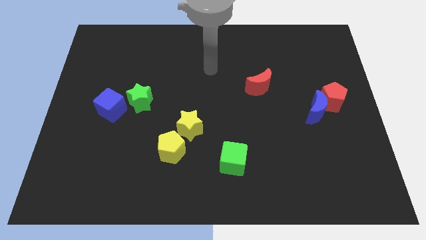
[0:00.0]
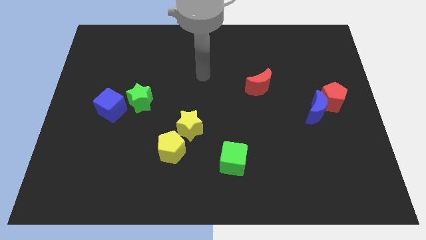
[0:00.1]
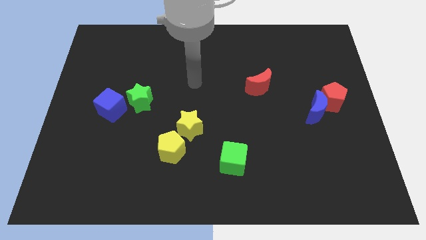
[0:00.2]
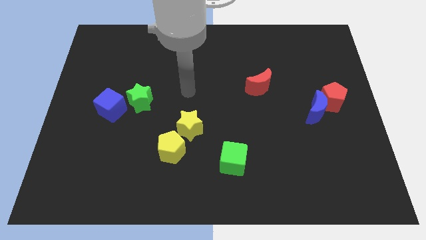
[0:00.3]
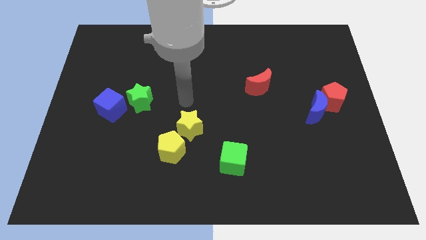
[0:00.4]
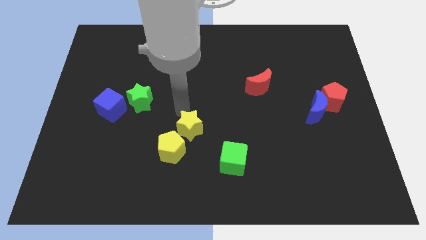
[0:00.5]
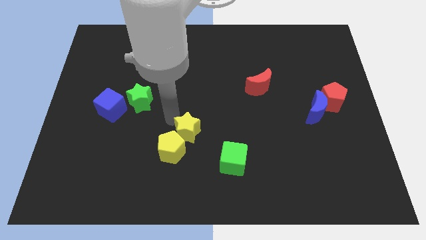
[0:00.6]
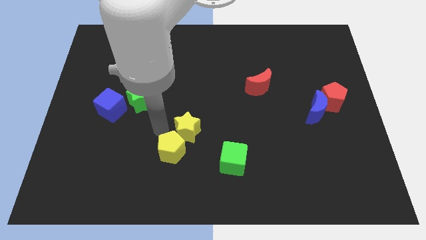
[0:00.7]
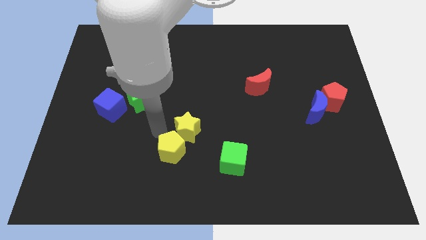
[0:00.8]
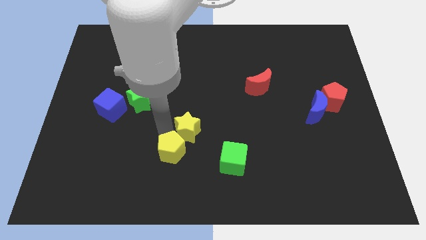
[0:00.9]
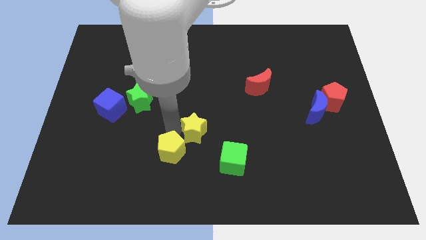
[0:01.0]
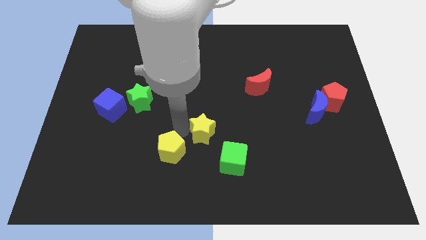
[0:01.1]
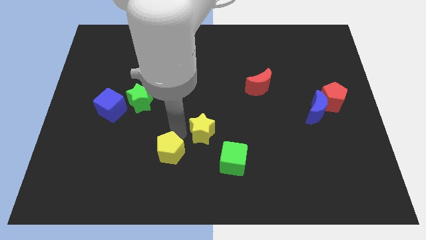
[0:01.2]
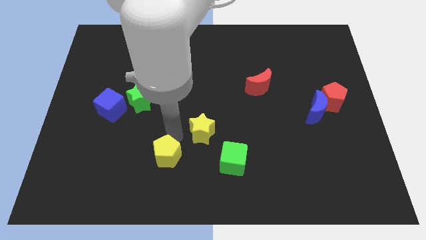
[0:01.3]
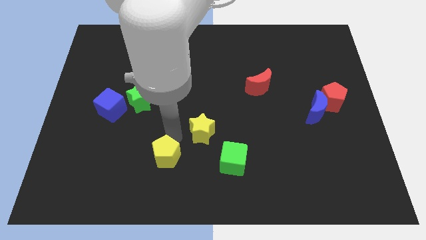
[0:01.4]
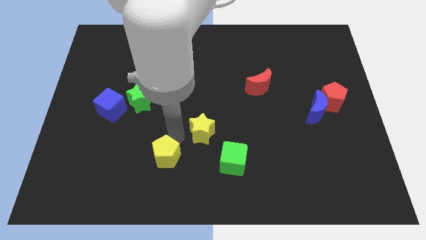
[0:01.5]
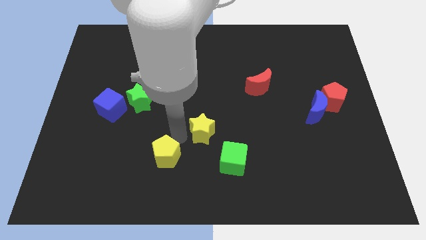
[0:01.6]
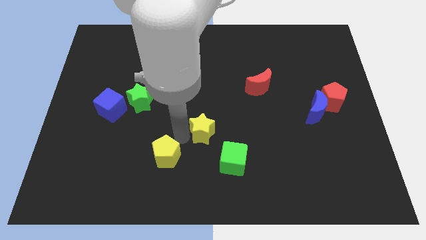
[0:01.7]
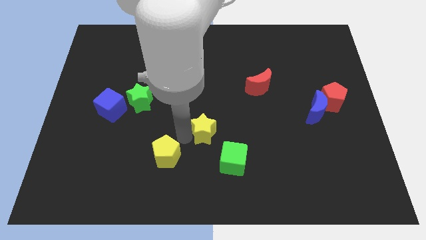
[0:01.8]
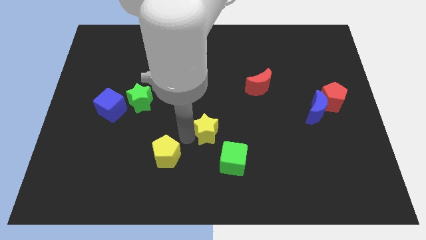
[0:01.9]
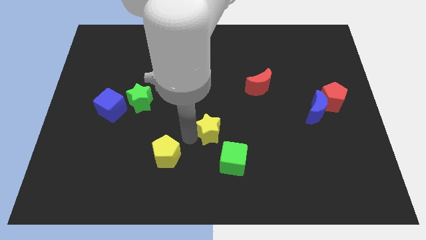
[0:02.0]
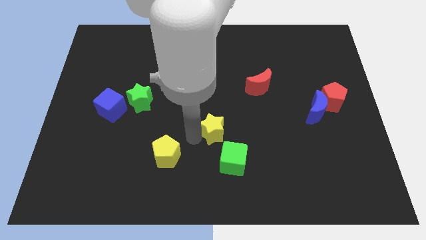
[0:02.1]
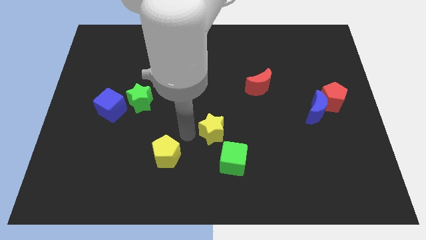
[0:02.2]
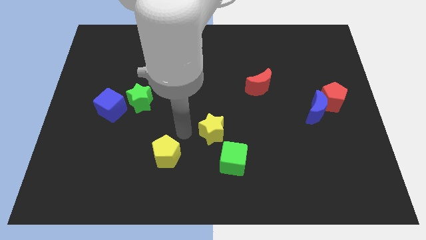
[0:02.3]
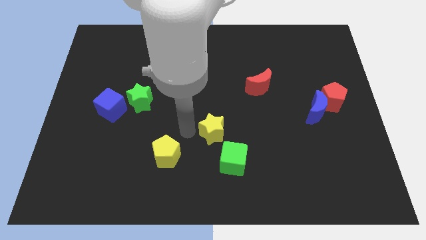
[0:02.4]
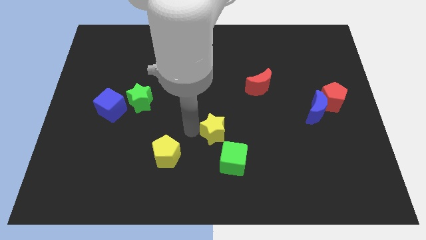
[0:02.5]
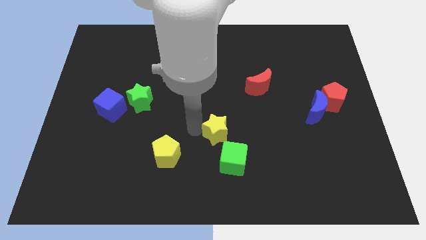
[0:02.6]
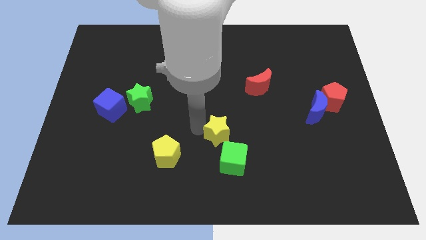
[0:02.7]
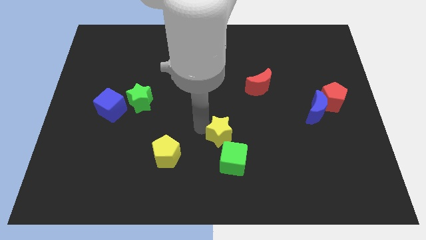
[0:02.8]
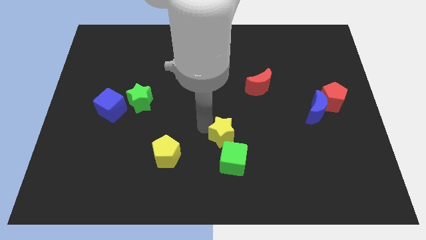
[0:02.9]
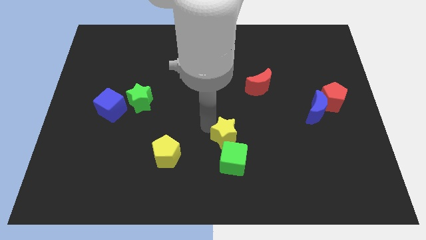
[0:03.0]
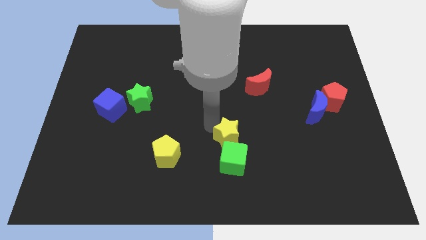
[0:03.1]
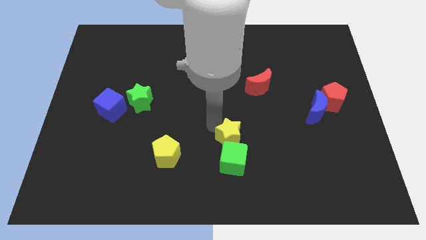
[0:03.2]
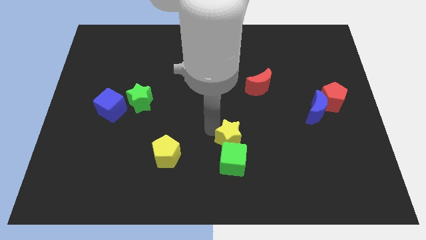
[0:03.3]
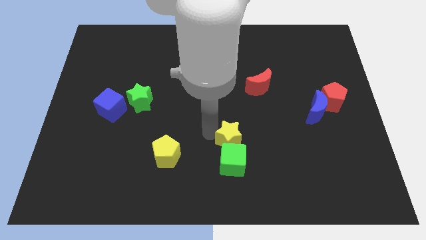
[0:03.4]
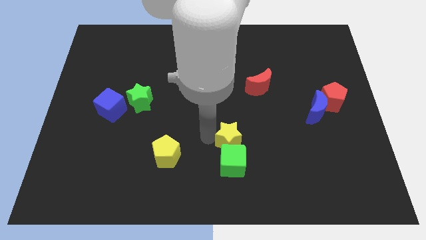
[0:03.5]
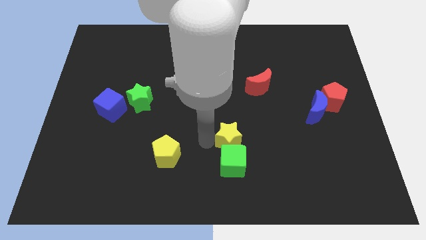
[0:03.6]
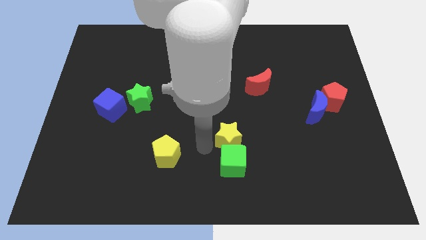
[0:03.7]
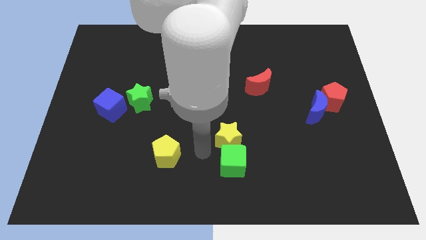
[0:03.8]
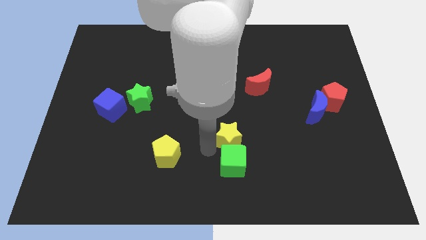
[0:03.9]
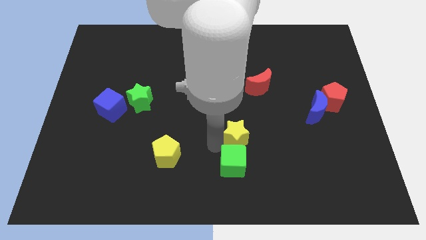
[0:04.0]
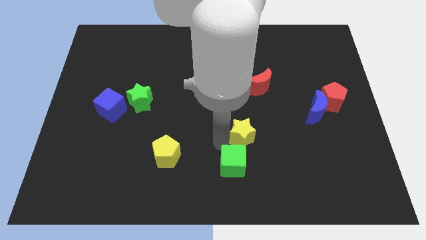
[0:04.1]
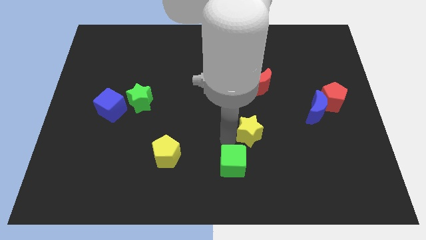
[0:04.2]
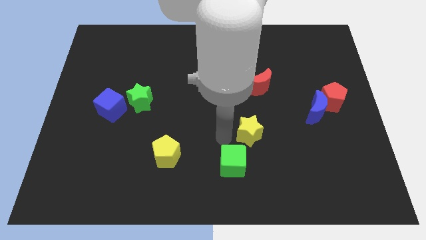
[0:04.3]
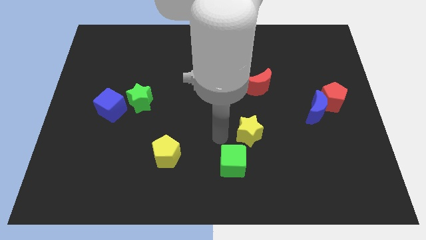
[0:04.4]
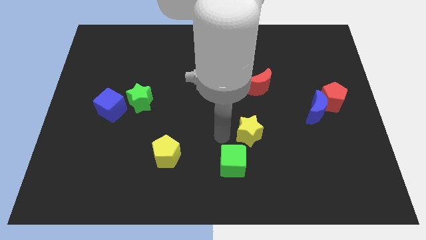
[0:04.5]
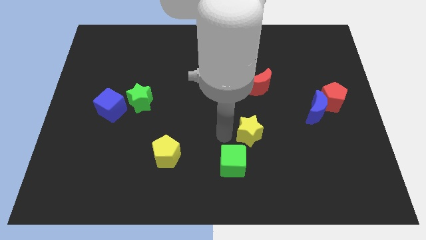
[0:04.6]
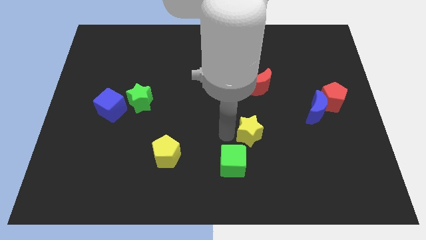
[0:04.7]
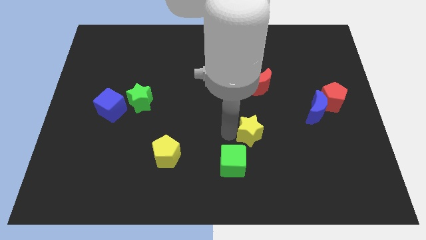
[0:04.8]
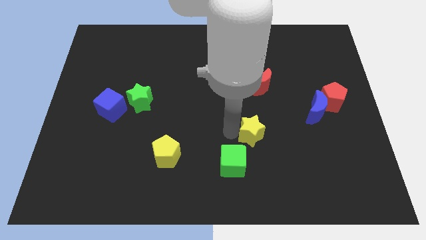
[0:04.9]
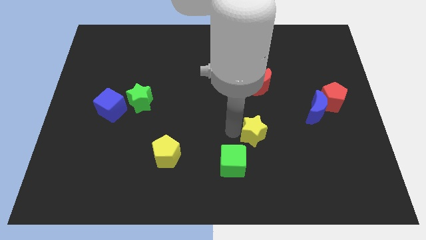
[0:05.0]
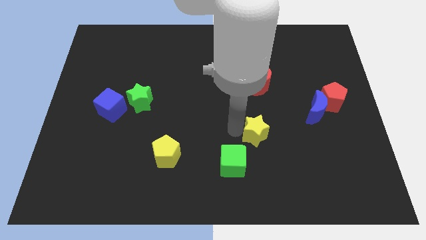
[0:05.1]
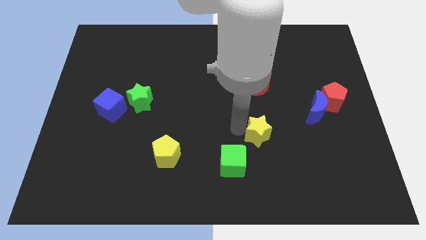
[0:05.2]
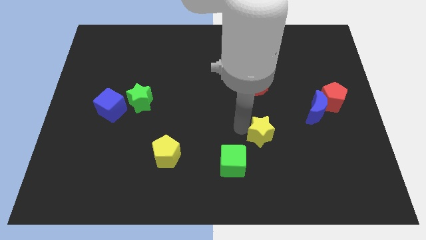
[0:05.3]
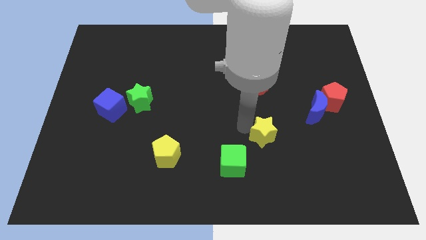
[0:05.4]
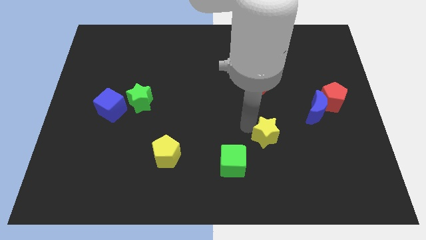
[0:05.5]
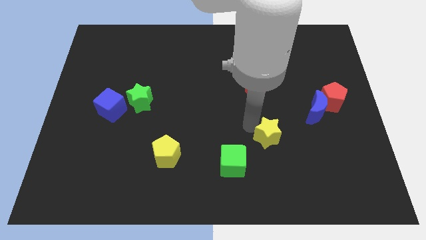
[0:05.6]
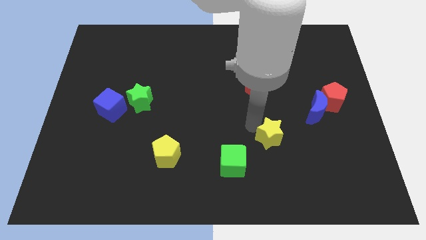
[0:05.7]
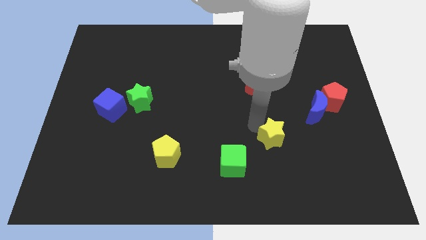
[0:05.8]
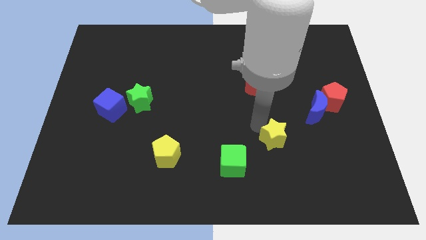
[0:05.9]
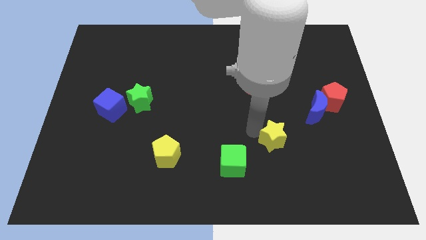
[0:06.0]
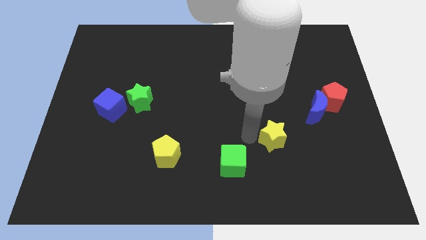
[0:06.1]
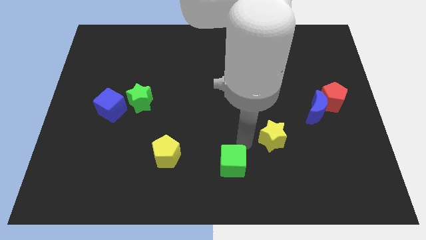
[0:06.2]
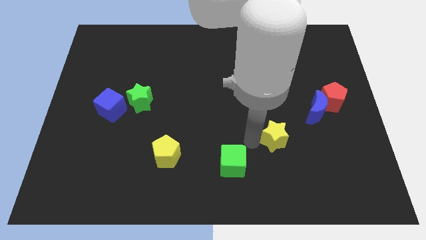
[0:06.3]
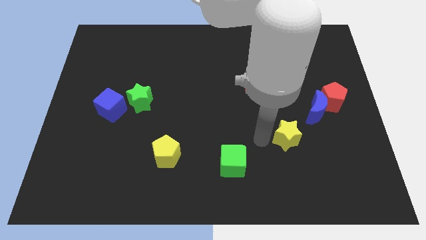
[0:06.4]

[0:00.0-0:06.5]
move the yellow star to the right

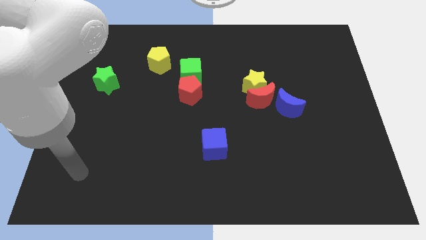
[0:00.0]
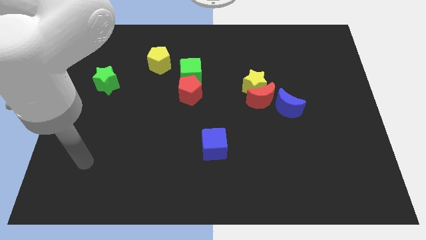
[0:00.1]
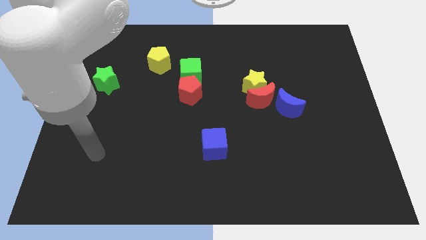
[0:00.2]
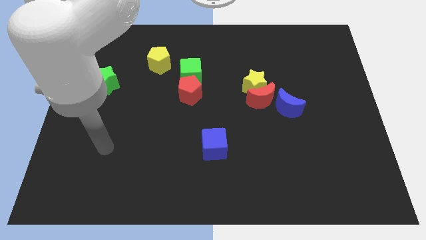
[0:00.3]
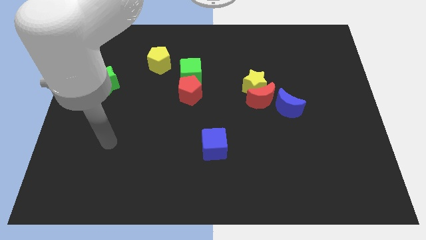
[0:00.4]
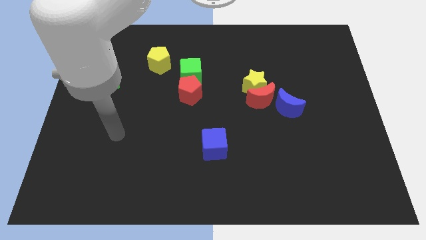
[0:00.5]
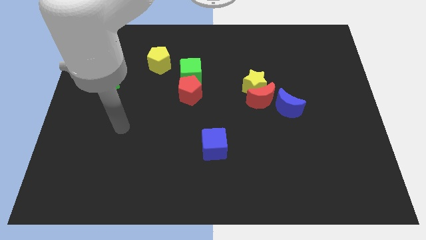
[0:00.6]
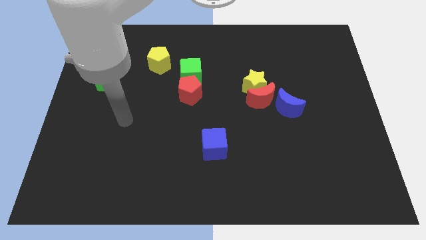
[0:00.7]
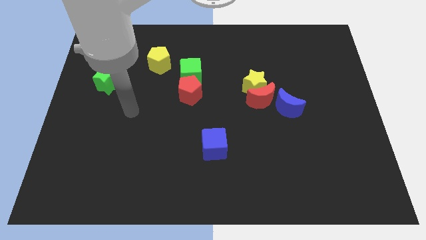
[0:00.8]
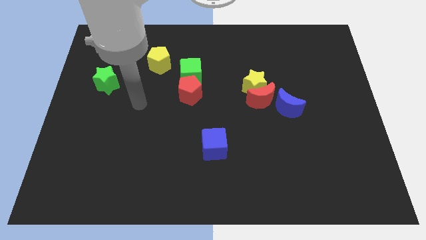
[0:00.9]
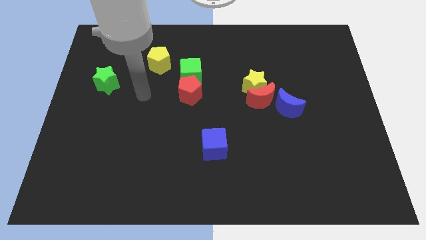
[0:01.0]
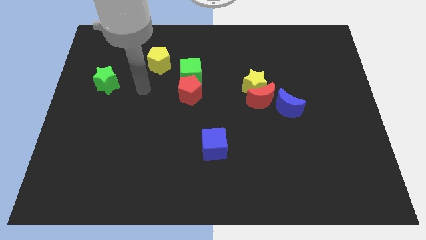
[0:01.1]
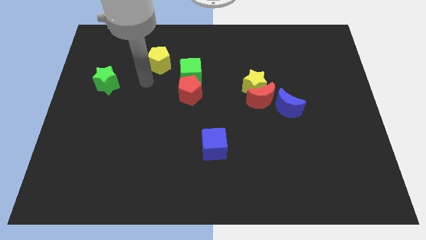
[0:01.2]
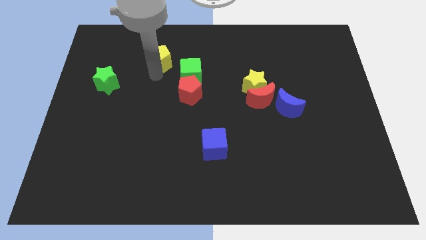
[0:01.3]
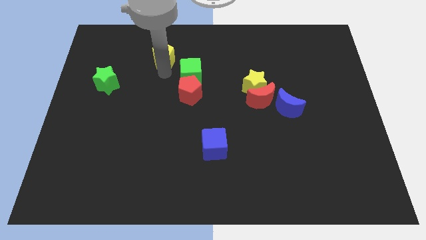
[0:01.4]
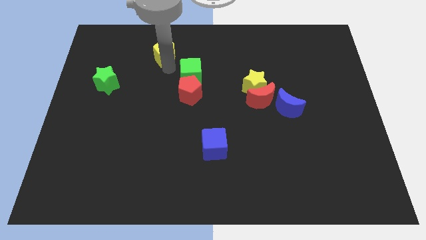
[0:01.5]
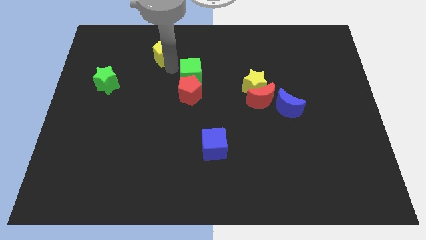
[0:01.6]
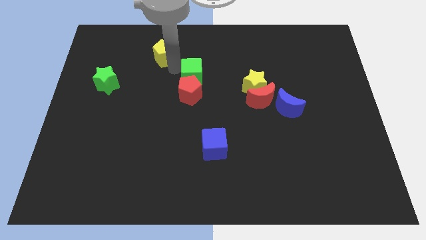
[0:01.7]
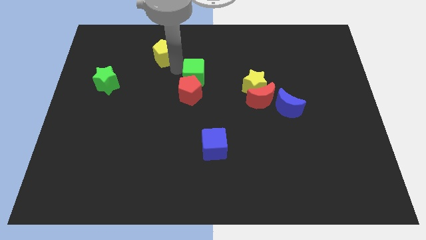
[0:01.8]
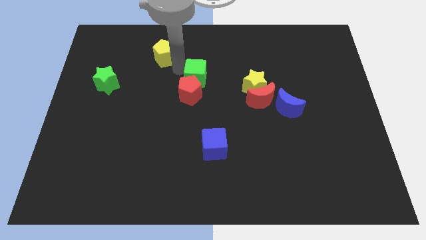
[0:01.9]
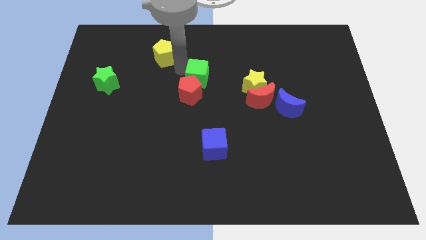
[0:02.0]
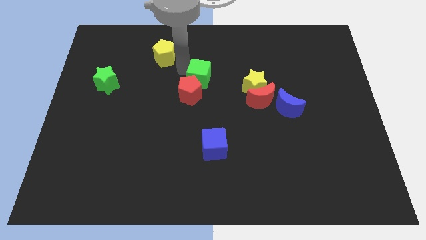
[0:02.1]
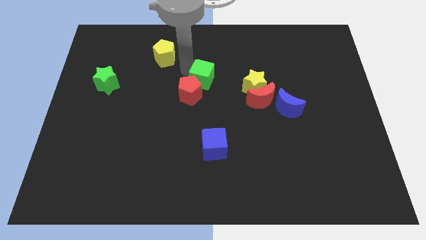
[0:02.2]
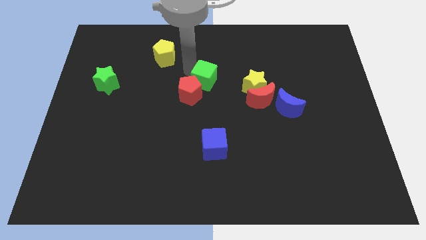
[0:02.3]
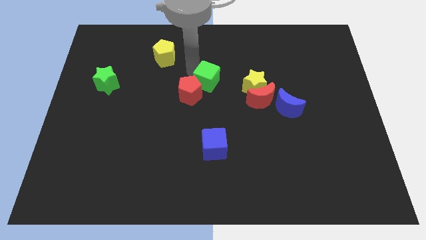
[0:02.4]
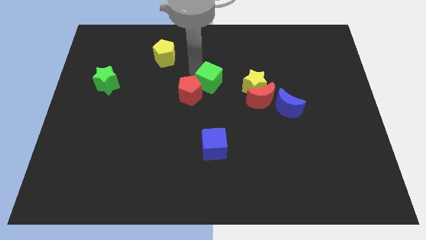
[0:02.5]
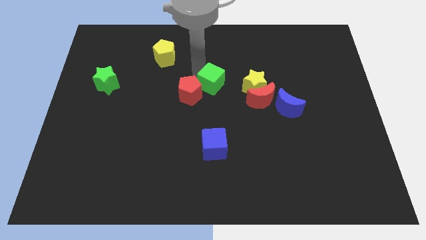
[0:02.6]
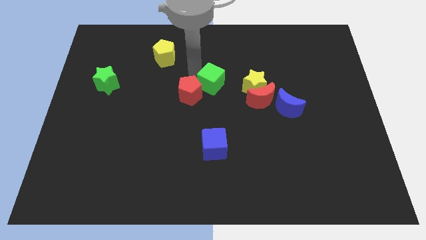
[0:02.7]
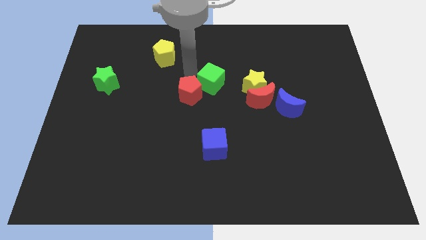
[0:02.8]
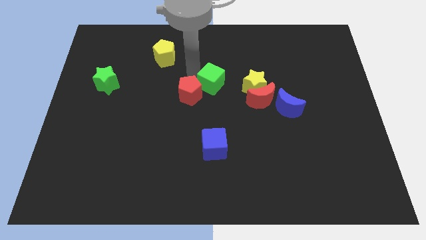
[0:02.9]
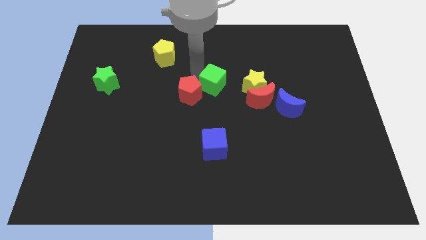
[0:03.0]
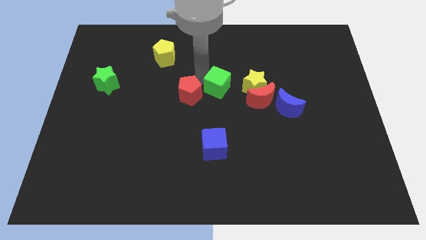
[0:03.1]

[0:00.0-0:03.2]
slightly slide the green cube diagonally downwards and right
